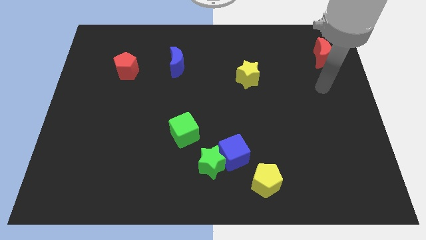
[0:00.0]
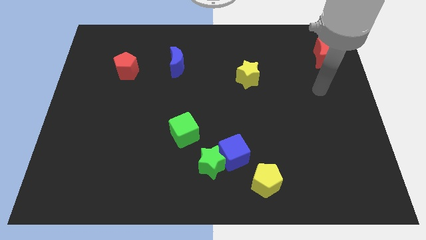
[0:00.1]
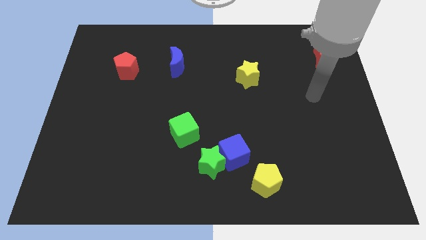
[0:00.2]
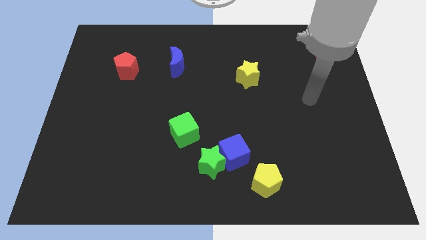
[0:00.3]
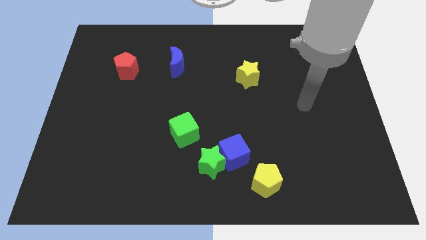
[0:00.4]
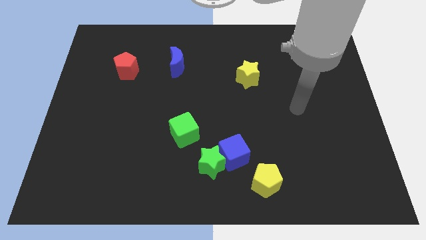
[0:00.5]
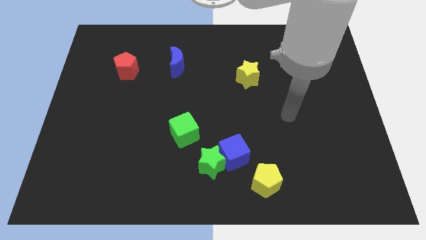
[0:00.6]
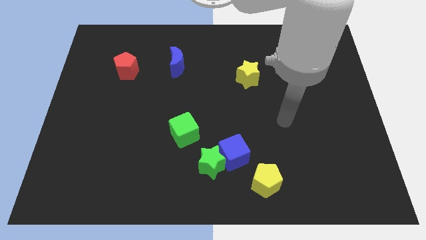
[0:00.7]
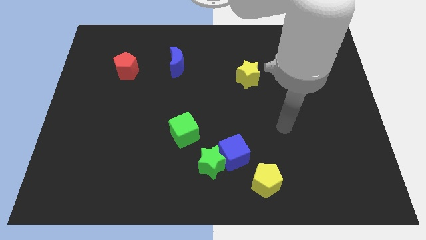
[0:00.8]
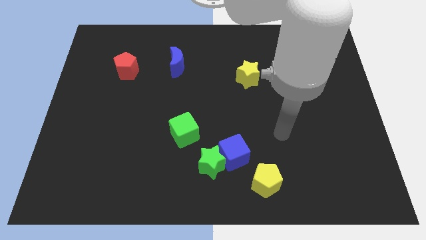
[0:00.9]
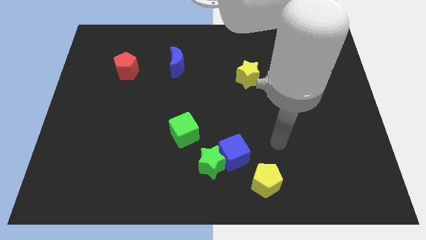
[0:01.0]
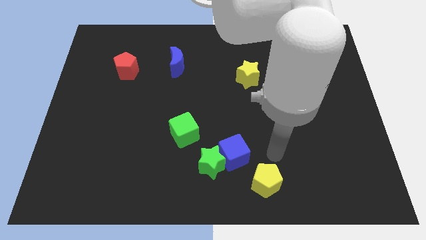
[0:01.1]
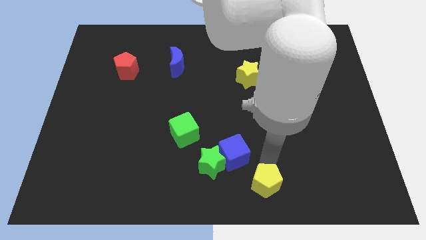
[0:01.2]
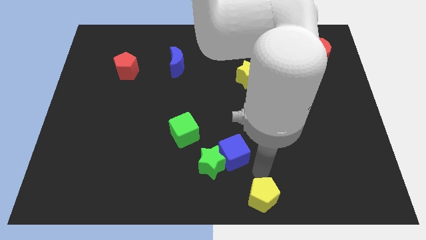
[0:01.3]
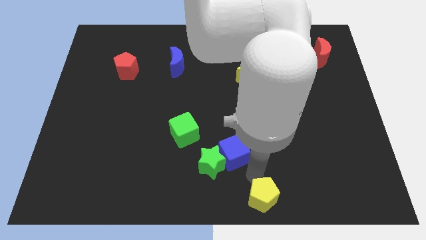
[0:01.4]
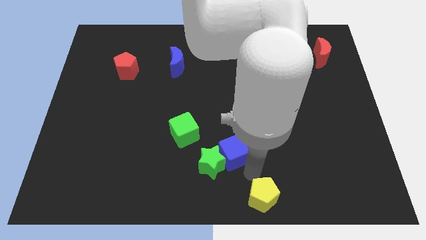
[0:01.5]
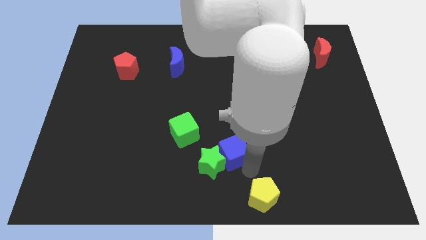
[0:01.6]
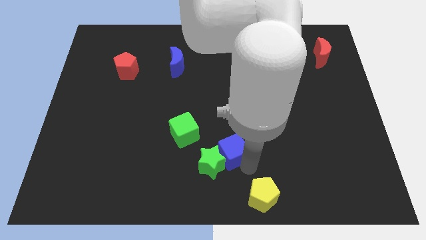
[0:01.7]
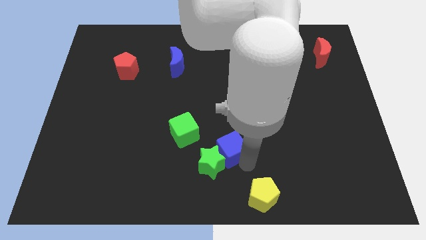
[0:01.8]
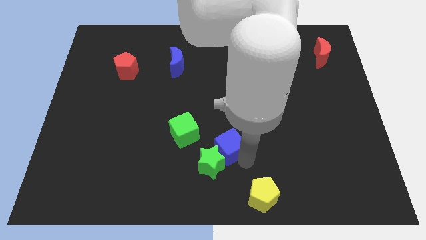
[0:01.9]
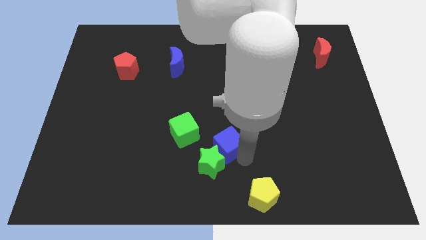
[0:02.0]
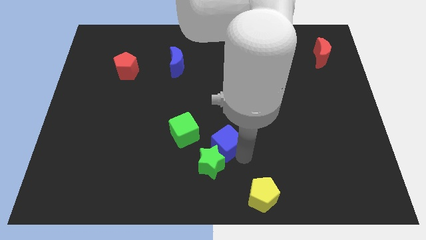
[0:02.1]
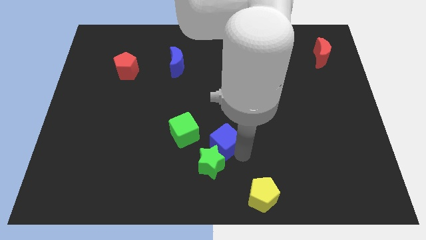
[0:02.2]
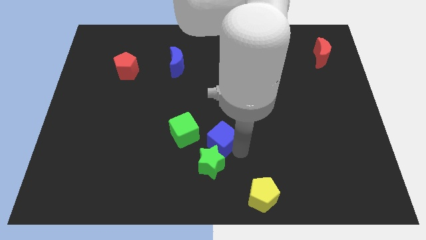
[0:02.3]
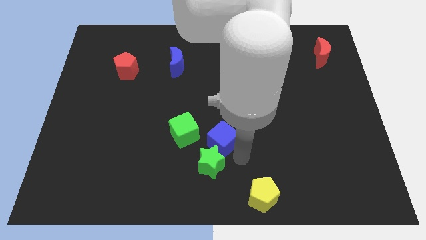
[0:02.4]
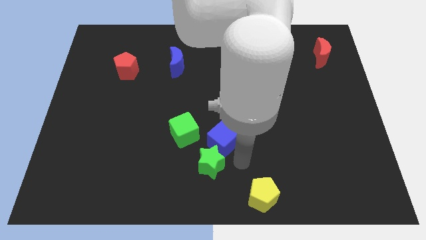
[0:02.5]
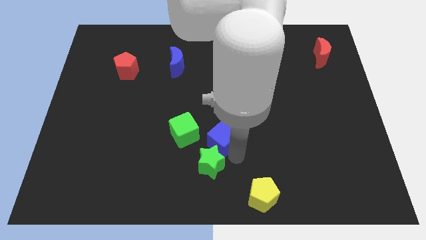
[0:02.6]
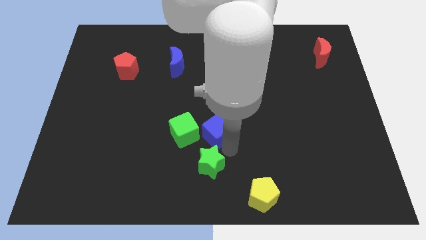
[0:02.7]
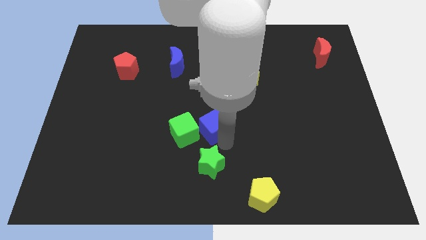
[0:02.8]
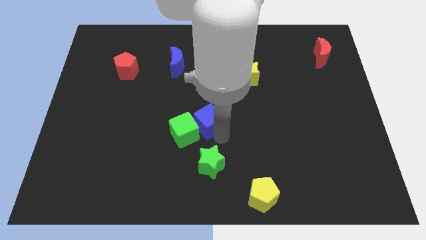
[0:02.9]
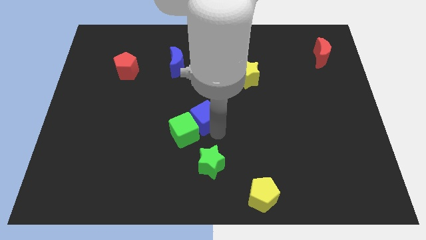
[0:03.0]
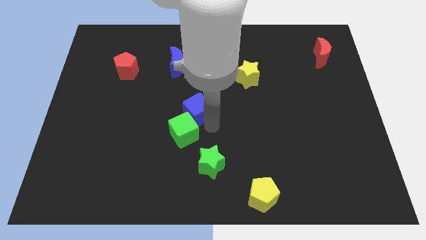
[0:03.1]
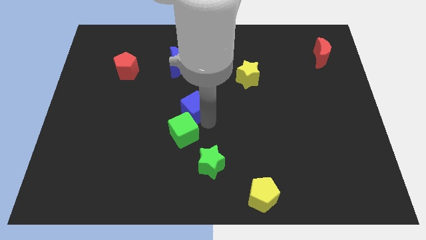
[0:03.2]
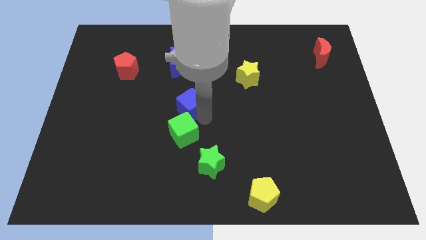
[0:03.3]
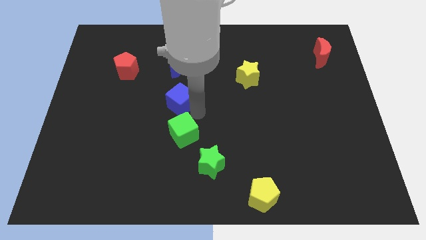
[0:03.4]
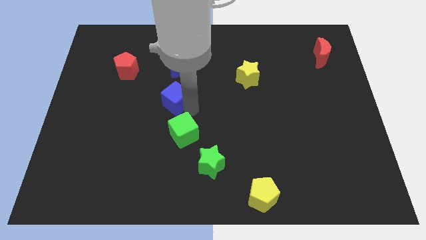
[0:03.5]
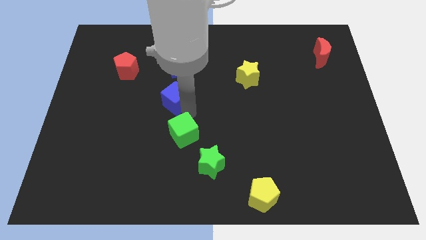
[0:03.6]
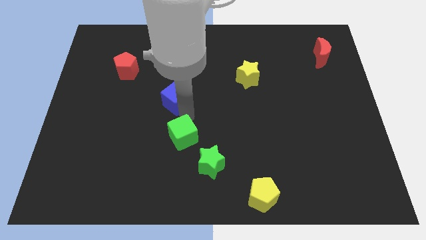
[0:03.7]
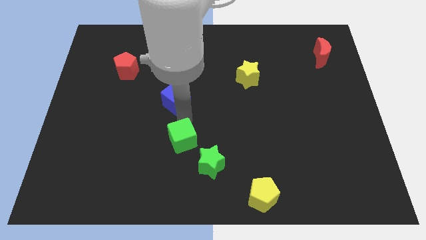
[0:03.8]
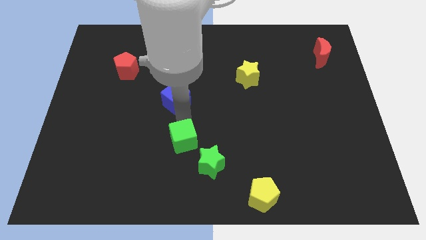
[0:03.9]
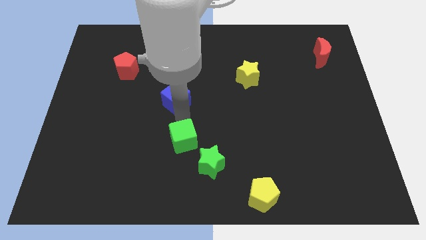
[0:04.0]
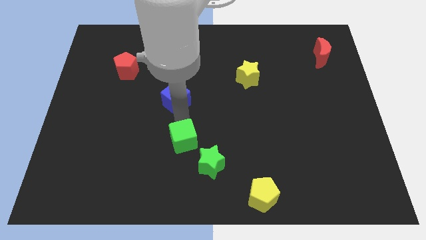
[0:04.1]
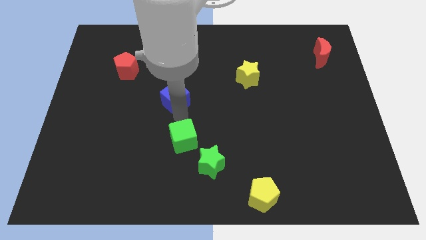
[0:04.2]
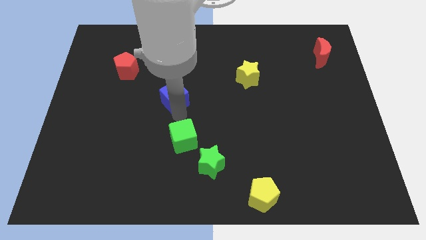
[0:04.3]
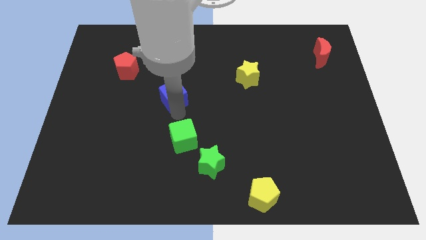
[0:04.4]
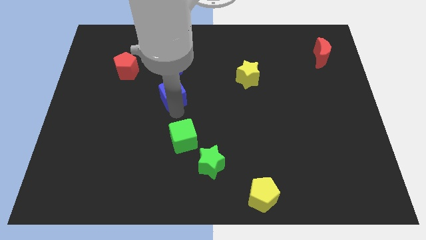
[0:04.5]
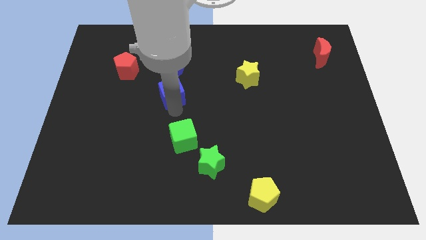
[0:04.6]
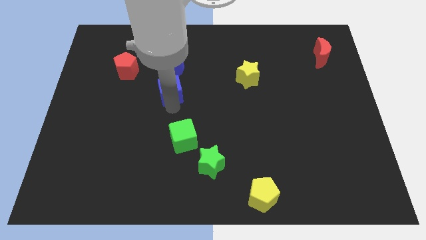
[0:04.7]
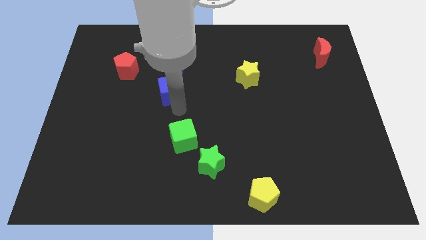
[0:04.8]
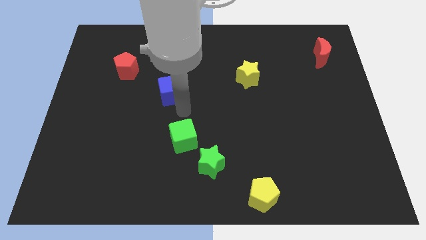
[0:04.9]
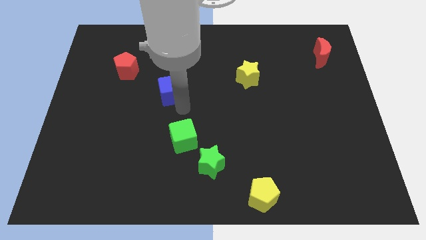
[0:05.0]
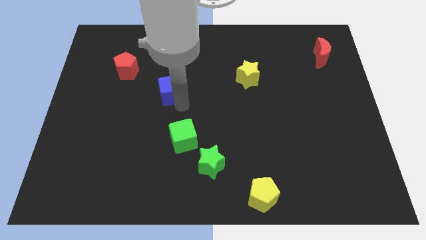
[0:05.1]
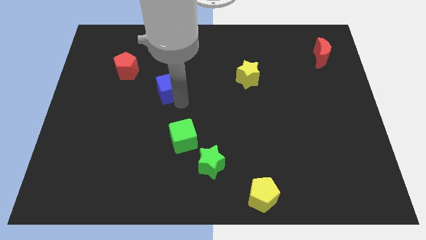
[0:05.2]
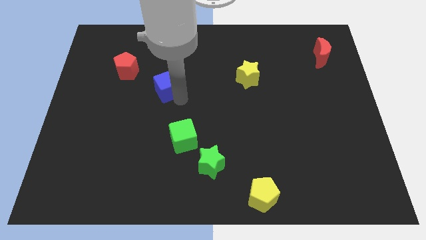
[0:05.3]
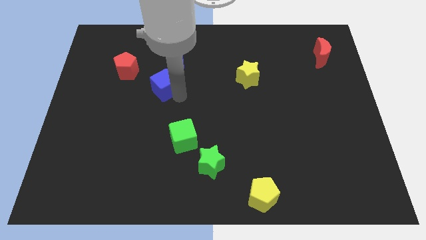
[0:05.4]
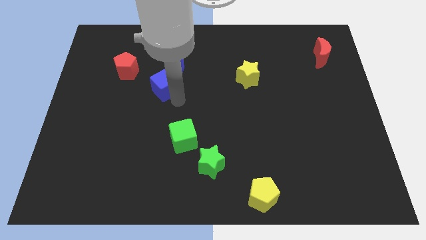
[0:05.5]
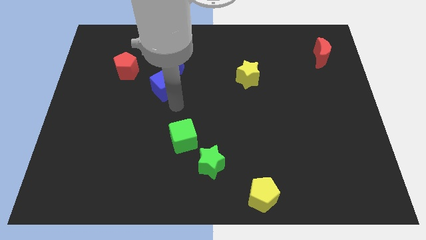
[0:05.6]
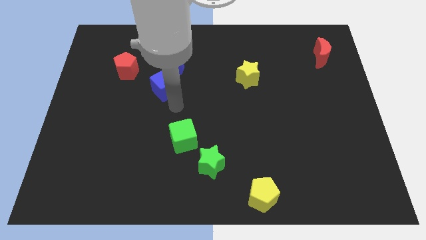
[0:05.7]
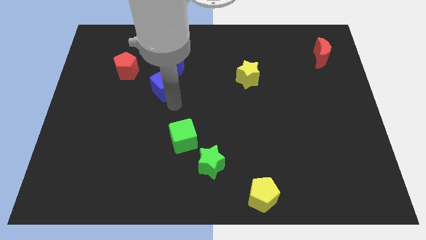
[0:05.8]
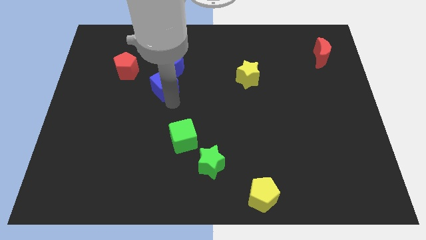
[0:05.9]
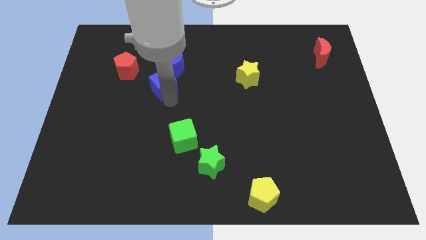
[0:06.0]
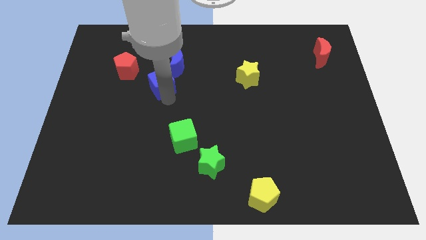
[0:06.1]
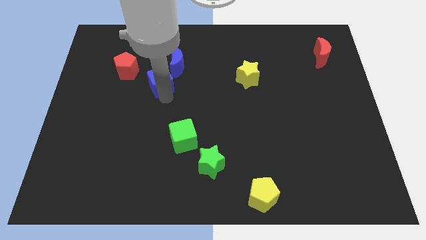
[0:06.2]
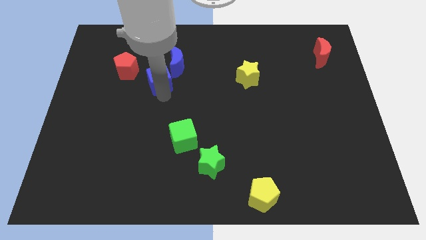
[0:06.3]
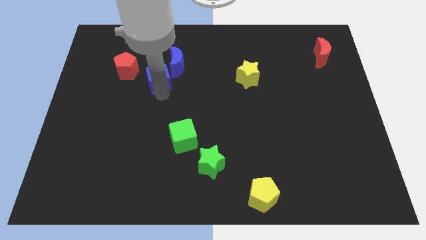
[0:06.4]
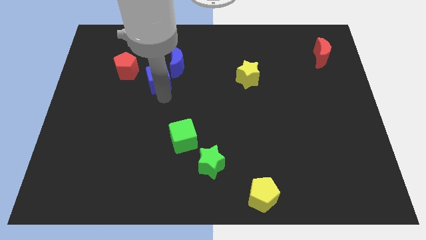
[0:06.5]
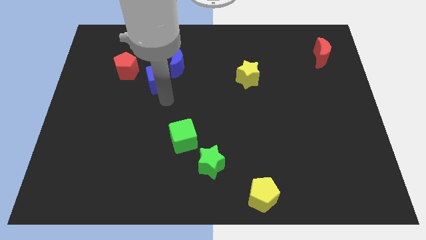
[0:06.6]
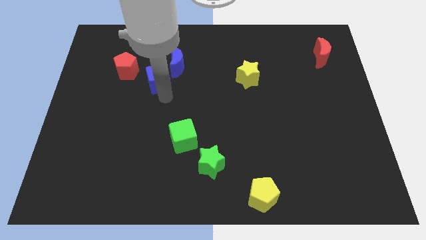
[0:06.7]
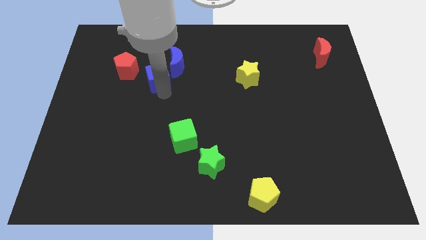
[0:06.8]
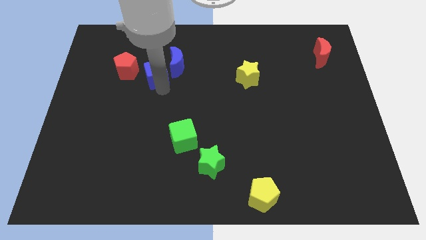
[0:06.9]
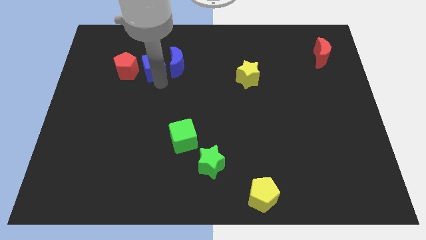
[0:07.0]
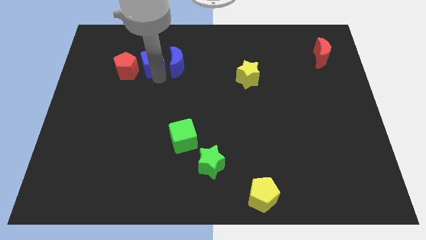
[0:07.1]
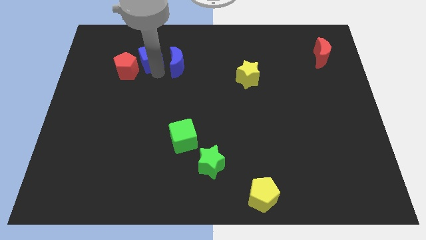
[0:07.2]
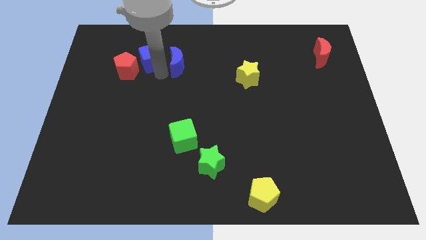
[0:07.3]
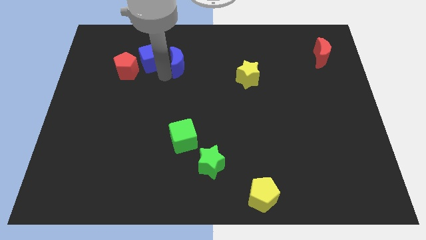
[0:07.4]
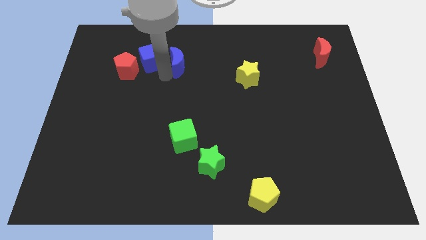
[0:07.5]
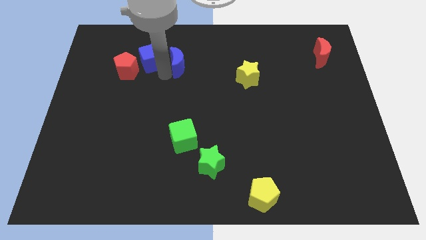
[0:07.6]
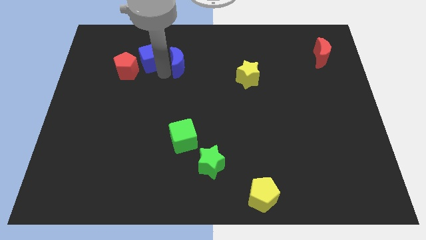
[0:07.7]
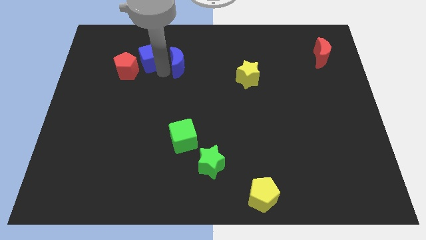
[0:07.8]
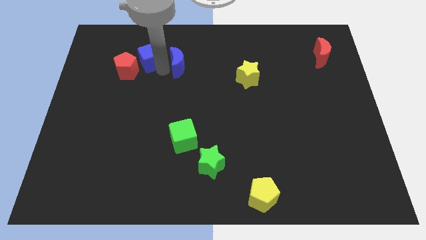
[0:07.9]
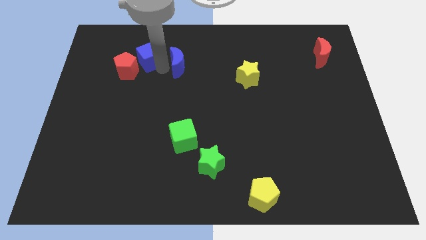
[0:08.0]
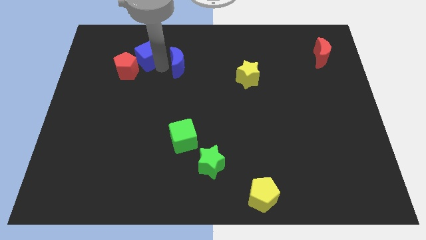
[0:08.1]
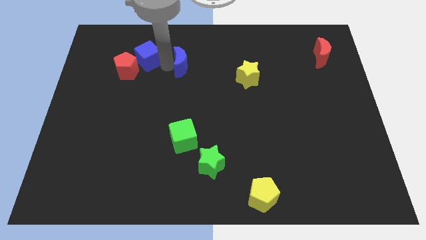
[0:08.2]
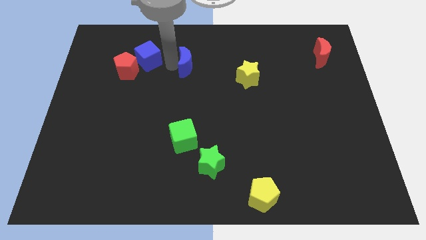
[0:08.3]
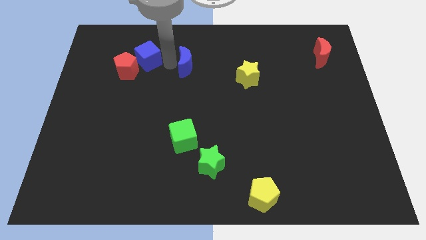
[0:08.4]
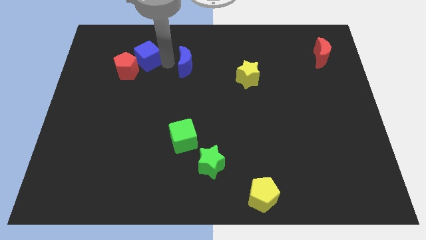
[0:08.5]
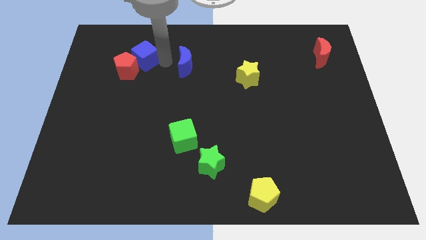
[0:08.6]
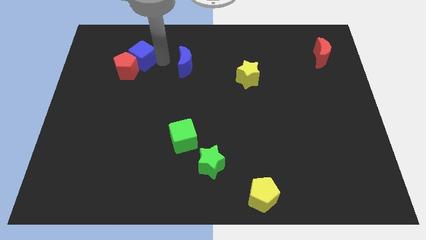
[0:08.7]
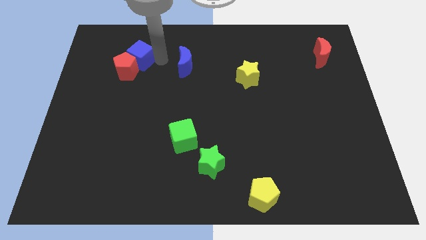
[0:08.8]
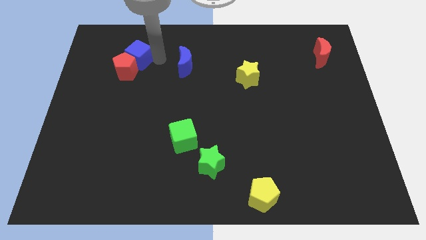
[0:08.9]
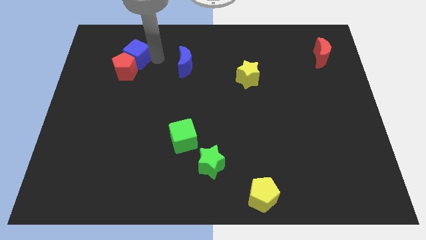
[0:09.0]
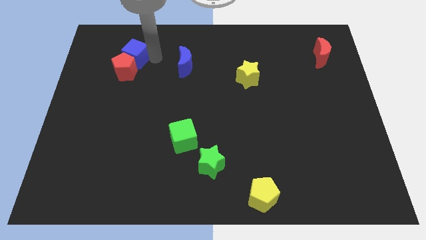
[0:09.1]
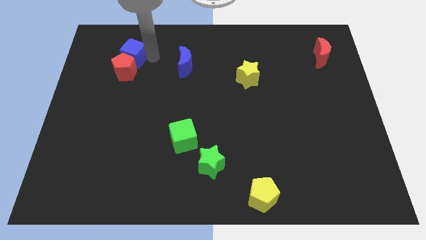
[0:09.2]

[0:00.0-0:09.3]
slide the blue cube to the top left of the red pentagon
